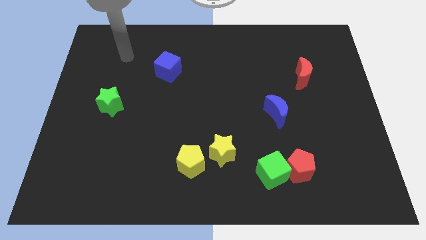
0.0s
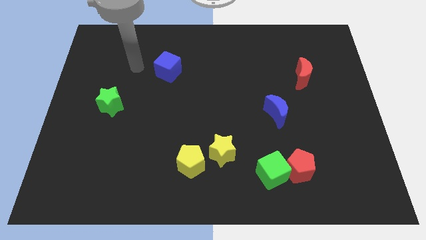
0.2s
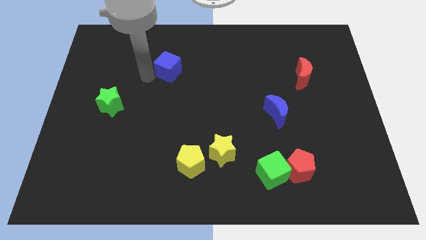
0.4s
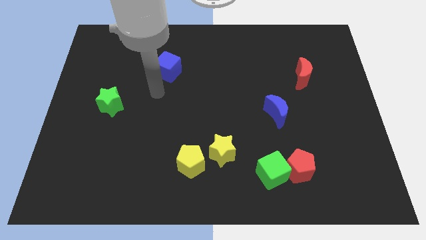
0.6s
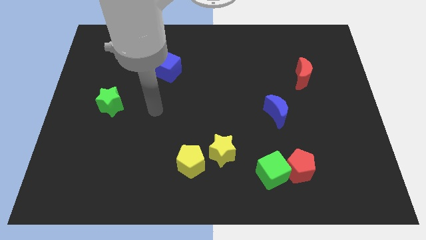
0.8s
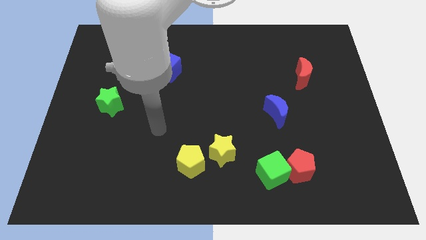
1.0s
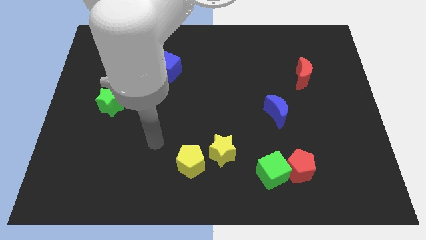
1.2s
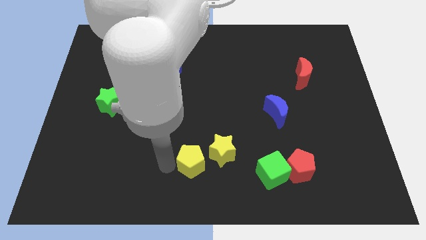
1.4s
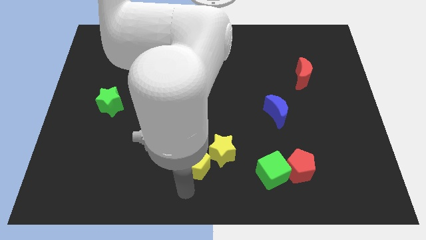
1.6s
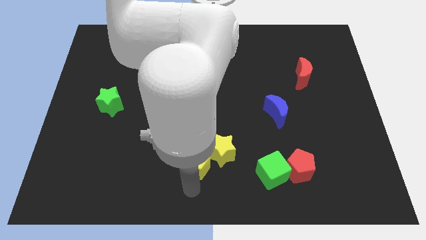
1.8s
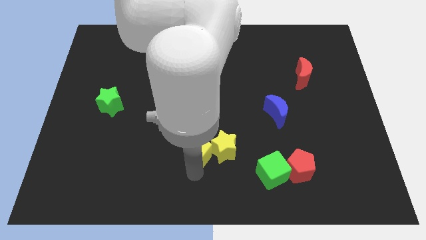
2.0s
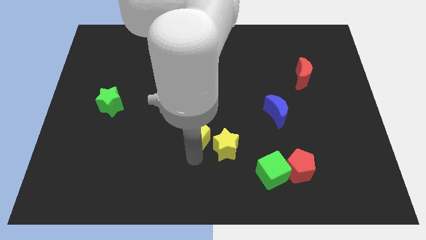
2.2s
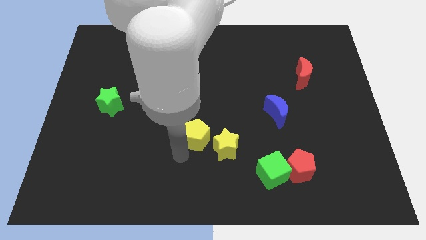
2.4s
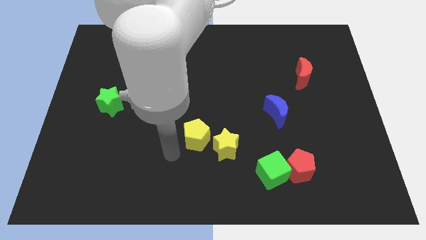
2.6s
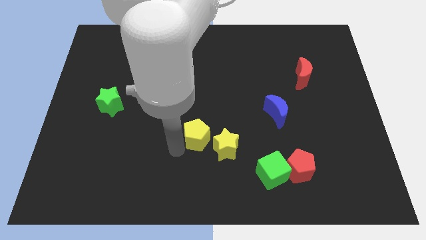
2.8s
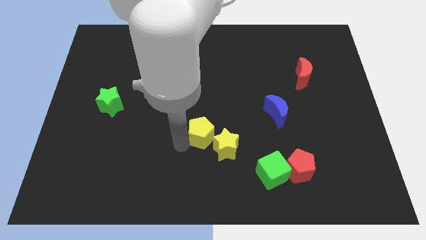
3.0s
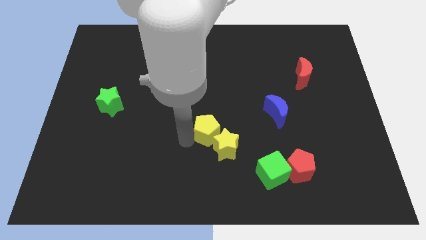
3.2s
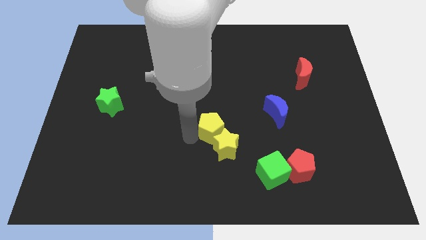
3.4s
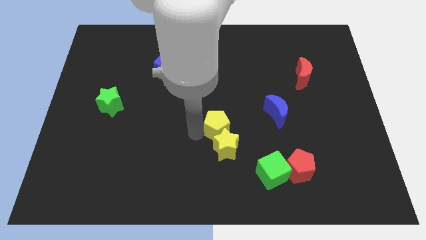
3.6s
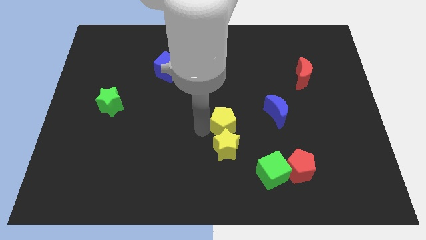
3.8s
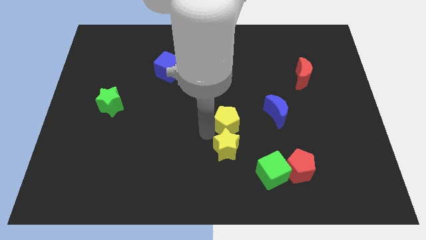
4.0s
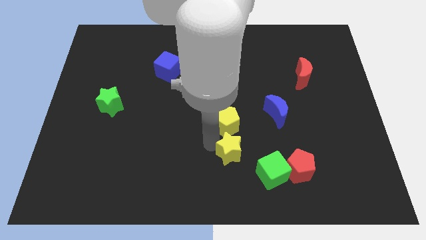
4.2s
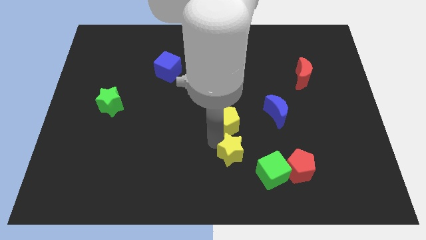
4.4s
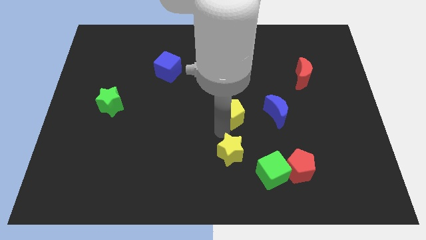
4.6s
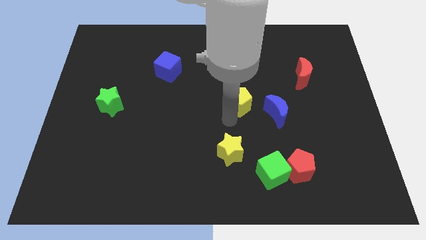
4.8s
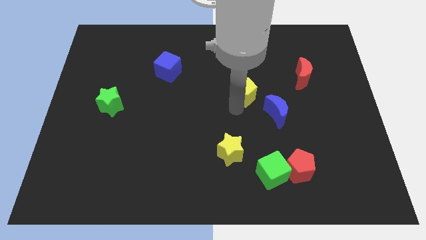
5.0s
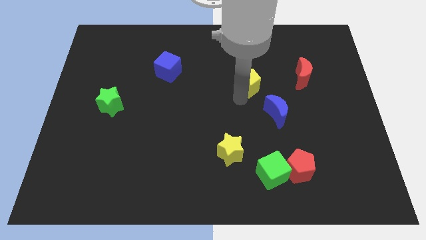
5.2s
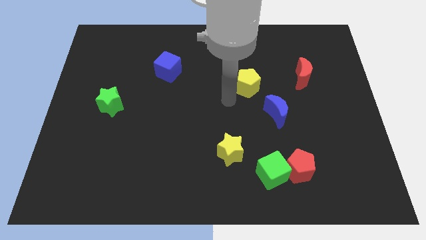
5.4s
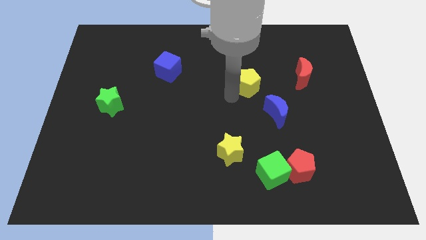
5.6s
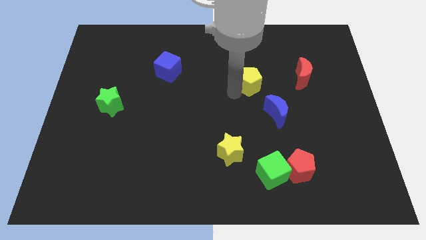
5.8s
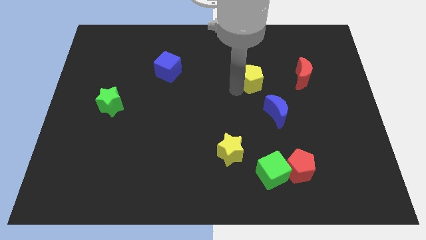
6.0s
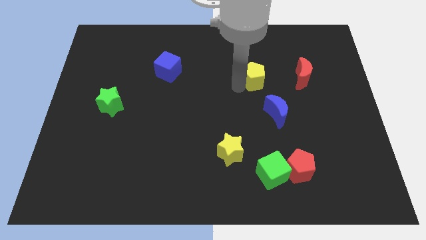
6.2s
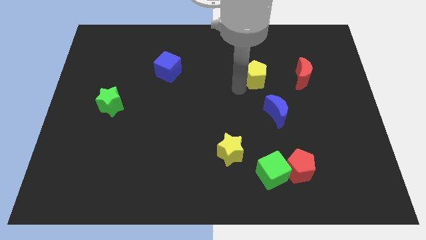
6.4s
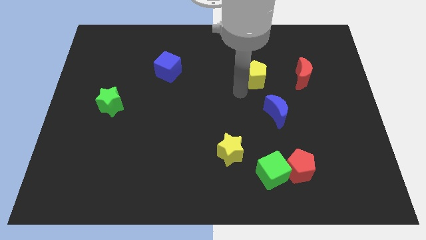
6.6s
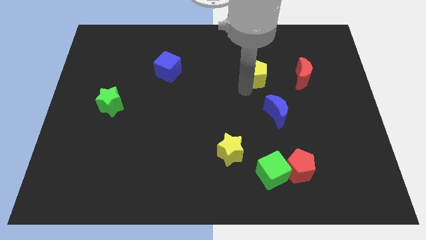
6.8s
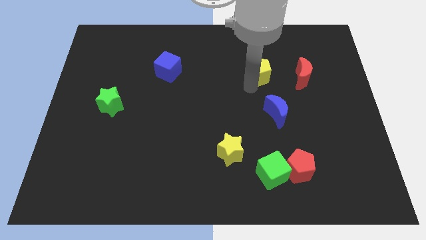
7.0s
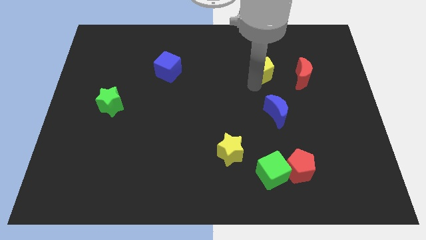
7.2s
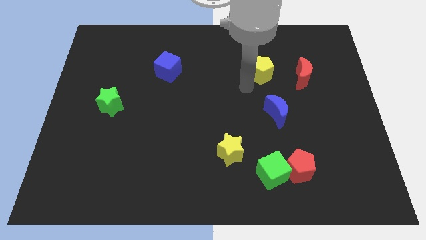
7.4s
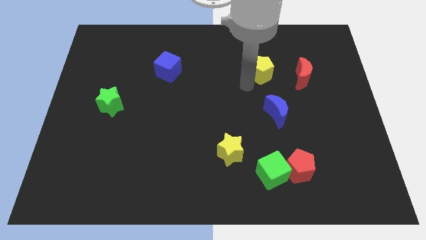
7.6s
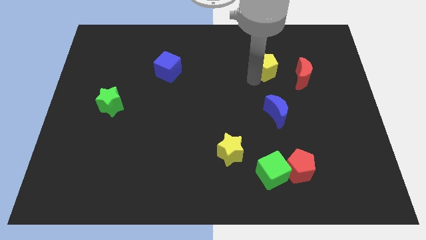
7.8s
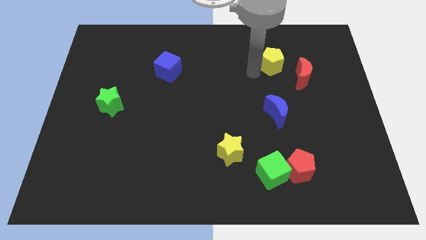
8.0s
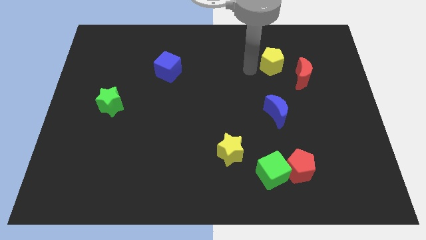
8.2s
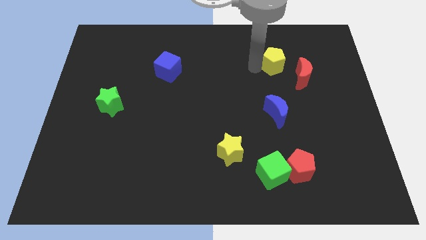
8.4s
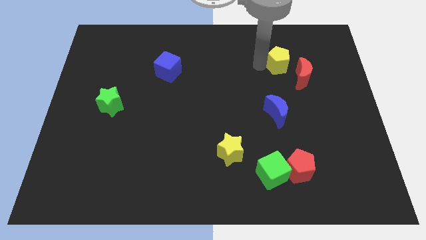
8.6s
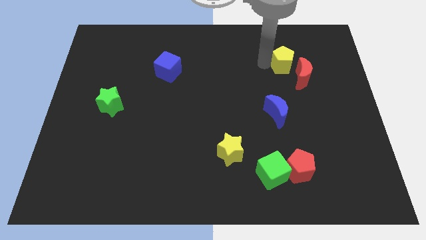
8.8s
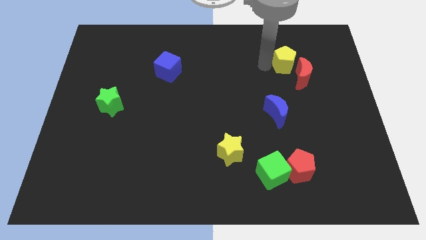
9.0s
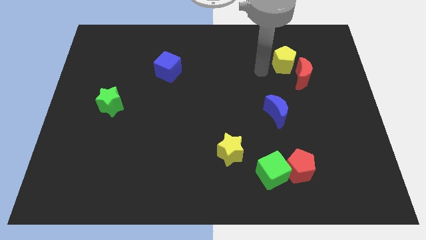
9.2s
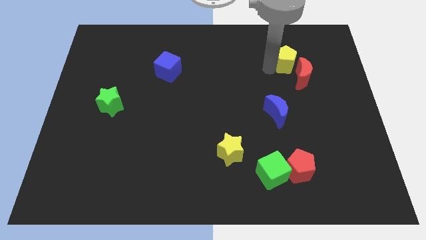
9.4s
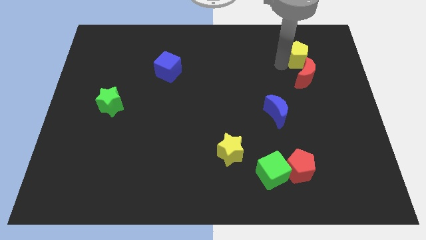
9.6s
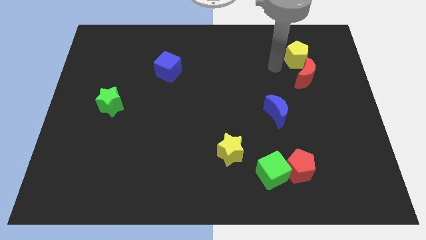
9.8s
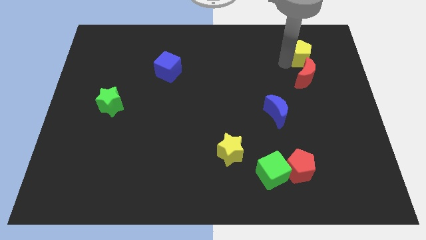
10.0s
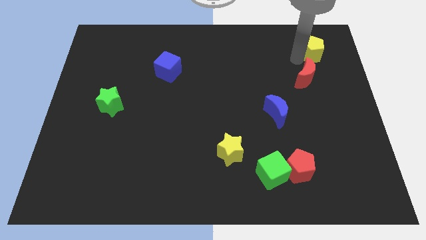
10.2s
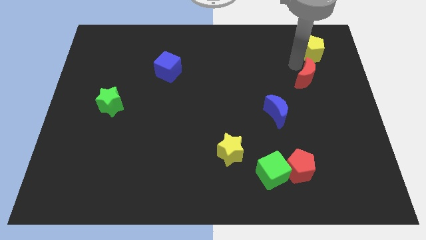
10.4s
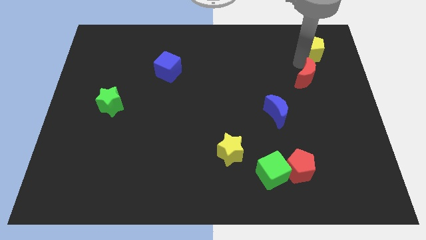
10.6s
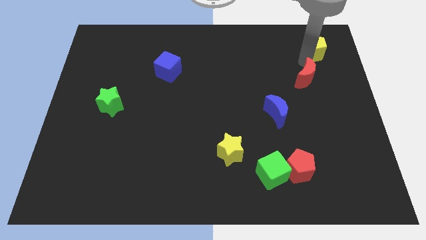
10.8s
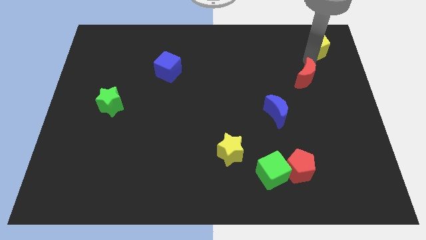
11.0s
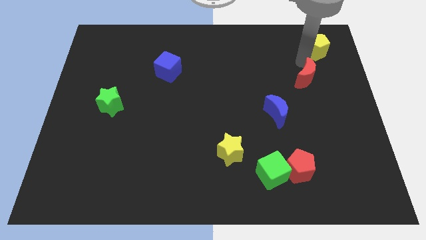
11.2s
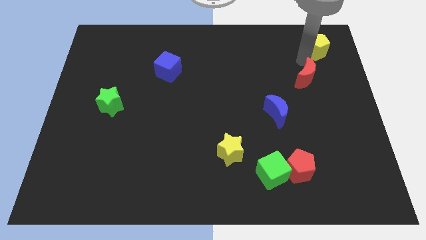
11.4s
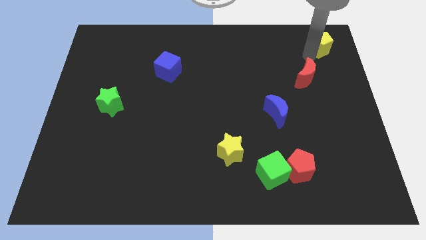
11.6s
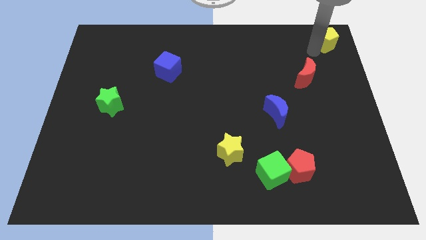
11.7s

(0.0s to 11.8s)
slide the yellow pentagon to the top right

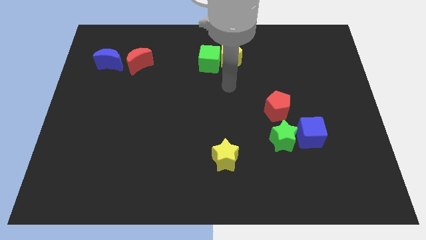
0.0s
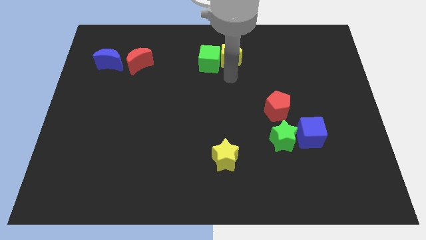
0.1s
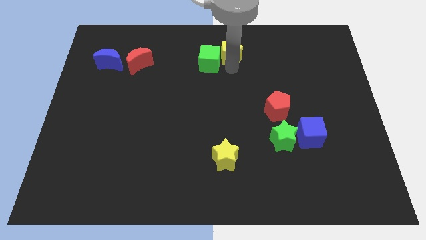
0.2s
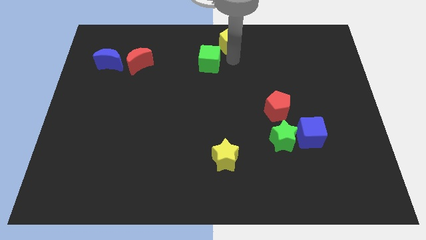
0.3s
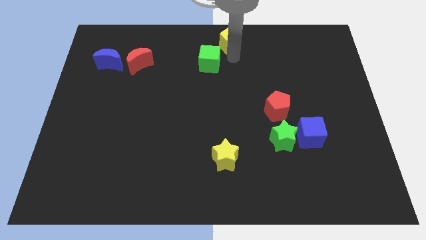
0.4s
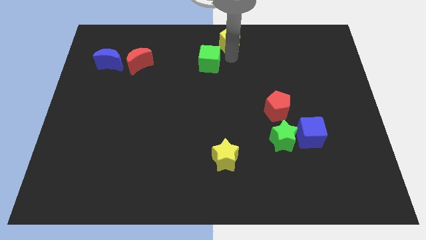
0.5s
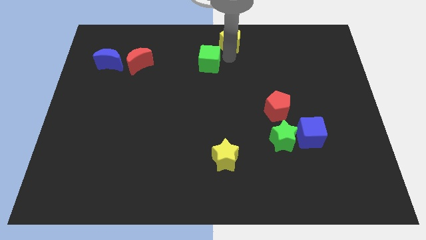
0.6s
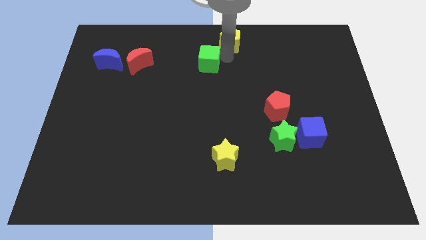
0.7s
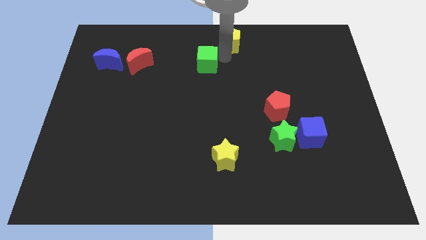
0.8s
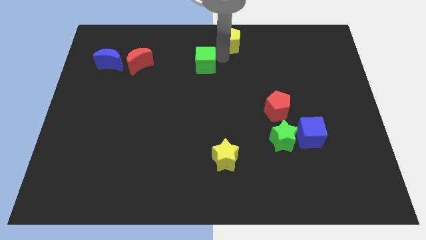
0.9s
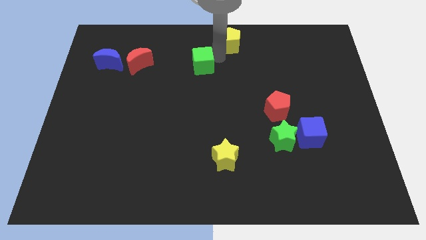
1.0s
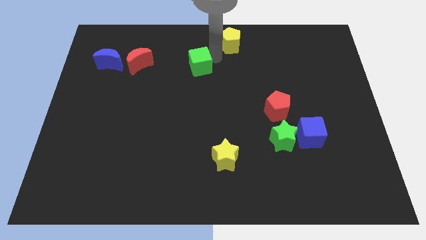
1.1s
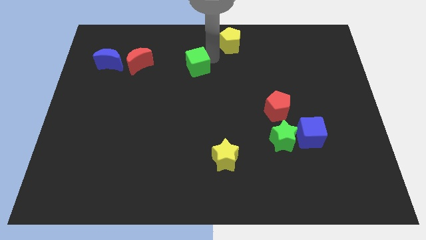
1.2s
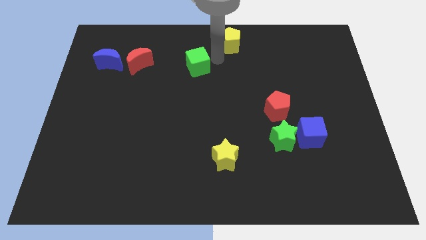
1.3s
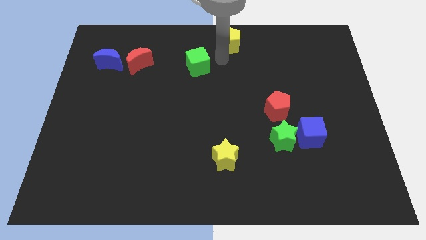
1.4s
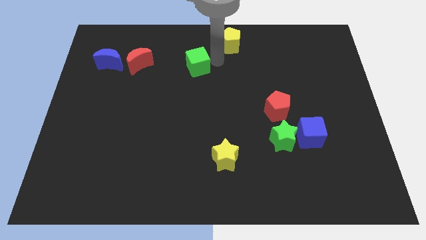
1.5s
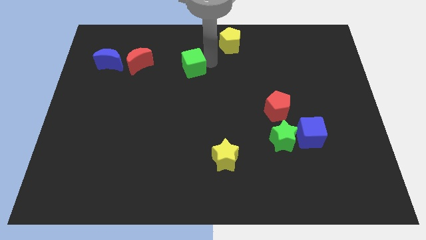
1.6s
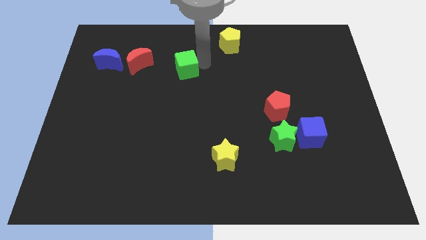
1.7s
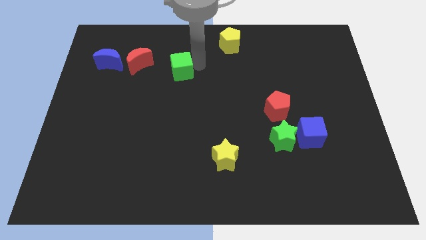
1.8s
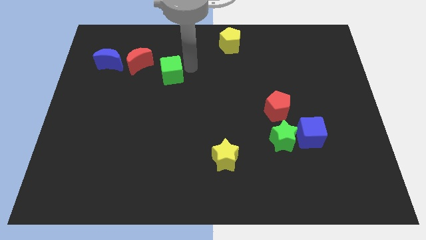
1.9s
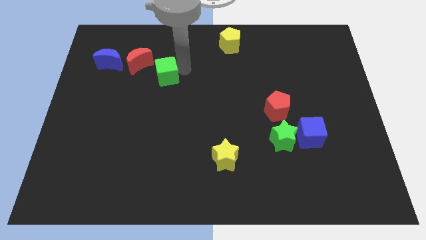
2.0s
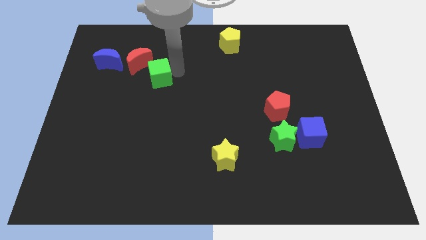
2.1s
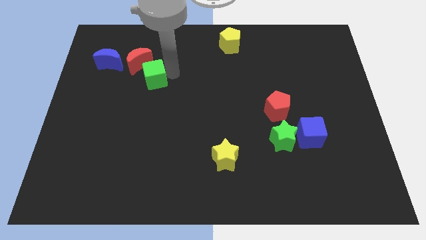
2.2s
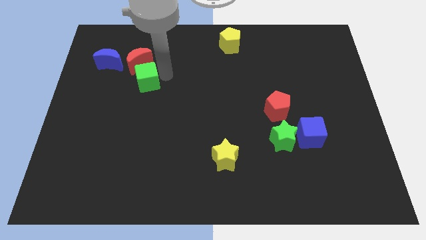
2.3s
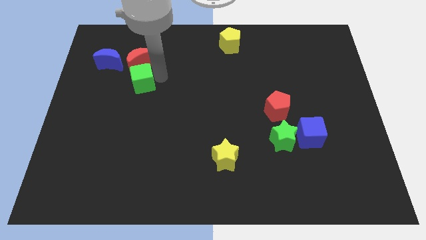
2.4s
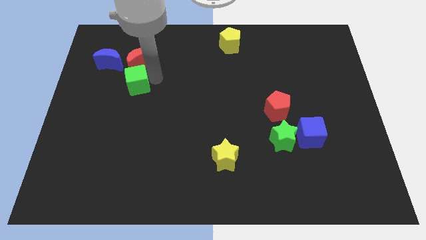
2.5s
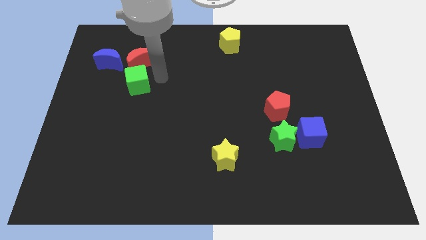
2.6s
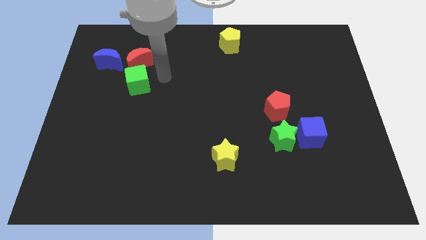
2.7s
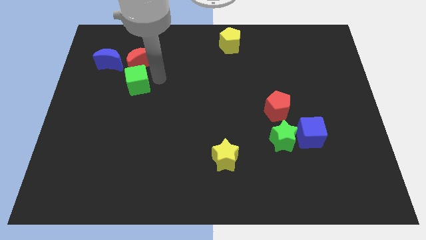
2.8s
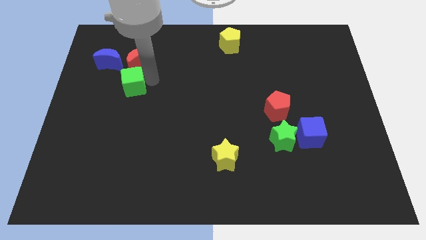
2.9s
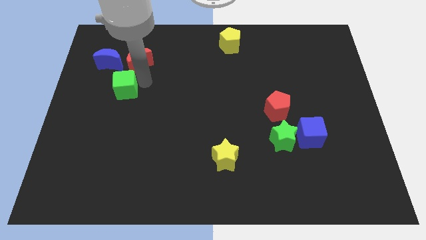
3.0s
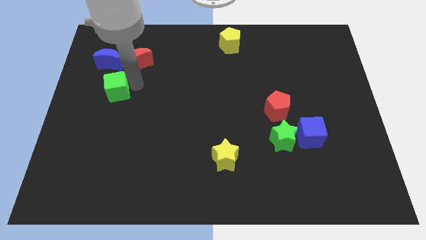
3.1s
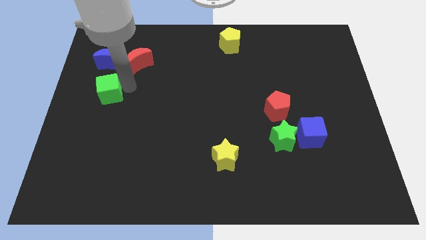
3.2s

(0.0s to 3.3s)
move the green cube to the left side of the board
